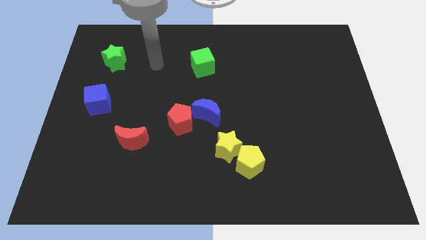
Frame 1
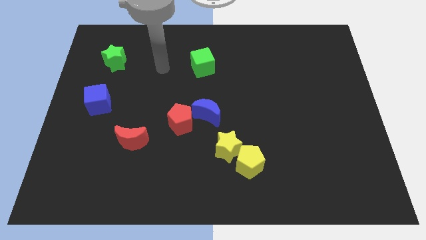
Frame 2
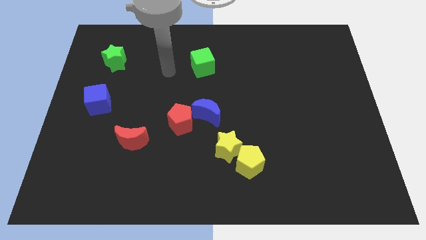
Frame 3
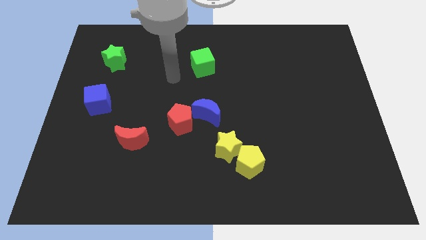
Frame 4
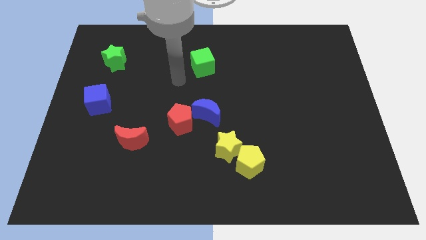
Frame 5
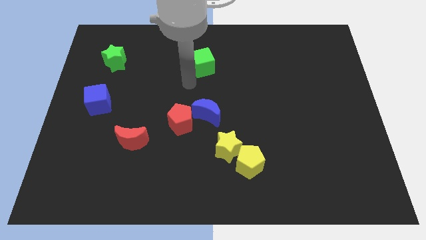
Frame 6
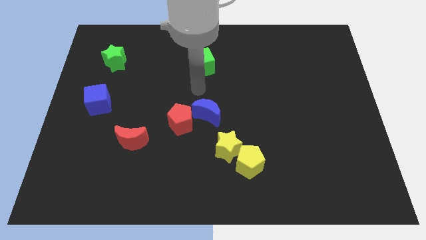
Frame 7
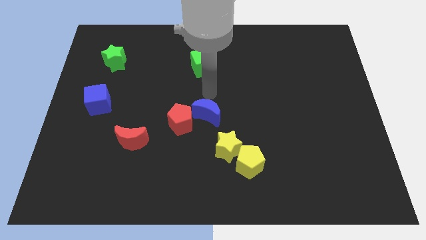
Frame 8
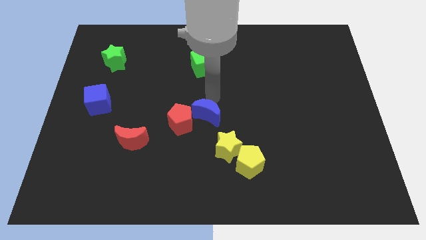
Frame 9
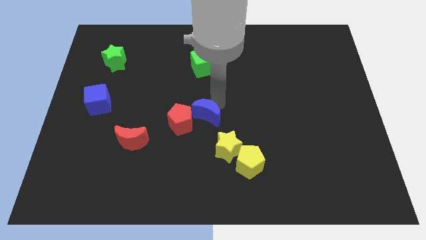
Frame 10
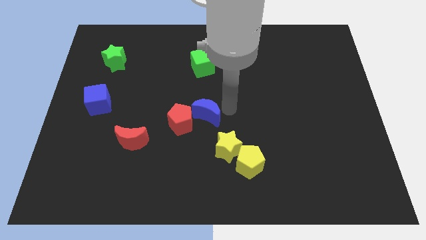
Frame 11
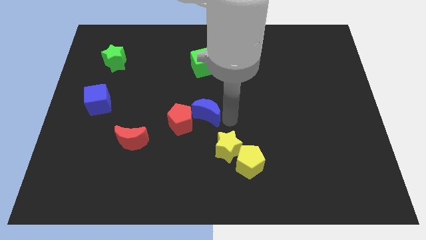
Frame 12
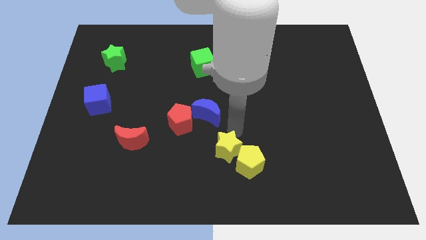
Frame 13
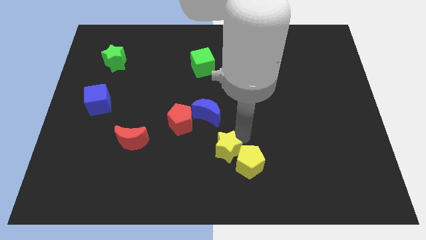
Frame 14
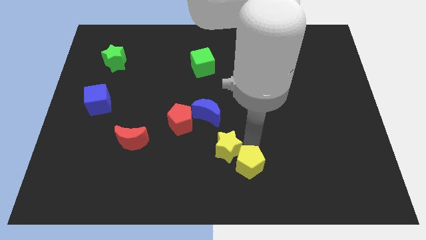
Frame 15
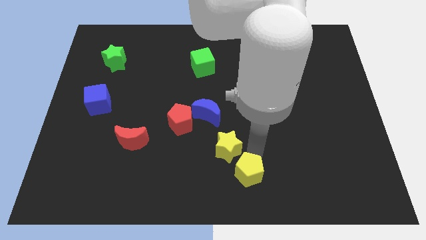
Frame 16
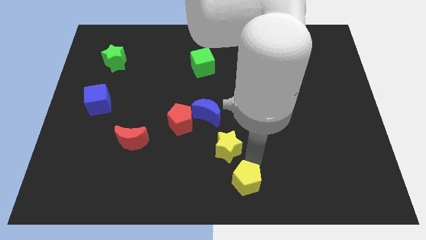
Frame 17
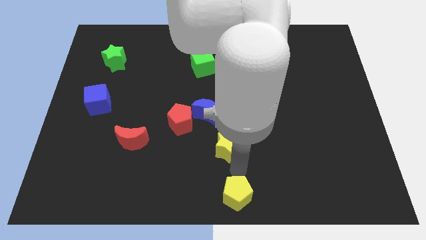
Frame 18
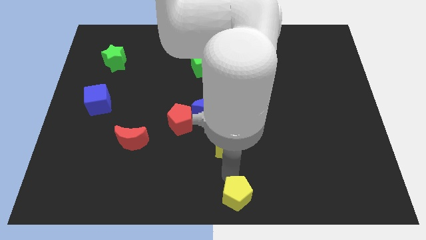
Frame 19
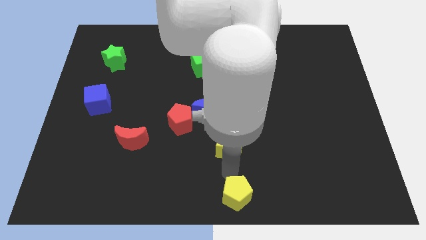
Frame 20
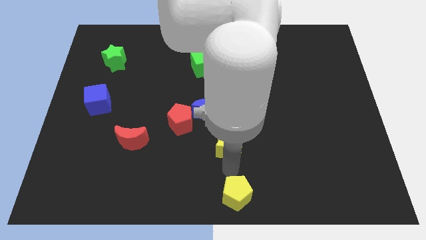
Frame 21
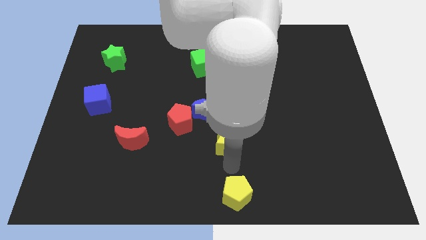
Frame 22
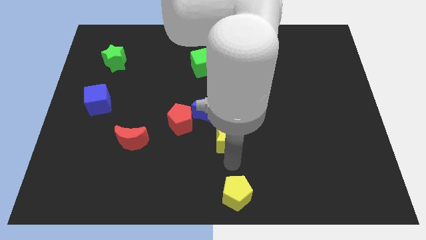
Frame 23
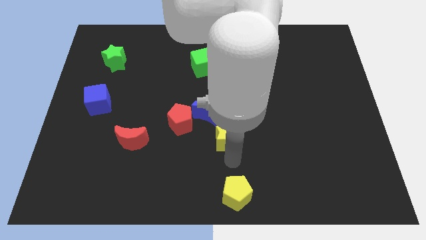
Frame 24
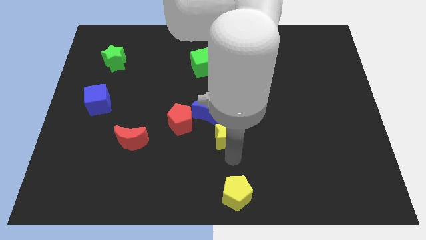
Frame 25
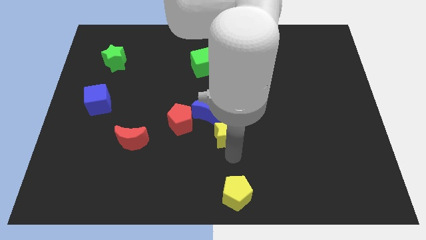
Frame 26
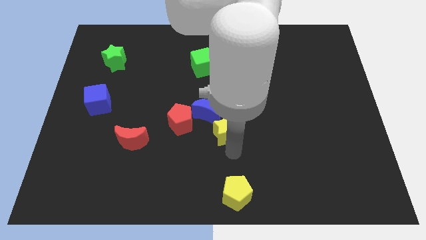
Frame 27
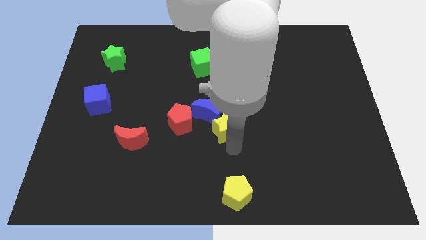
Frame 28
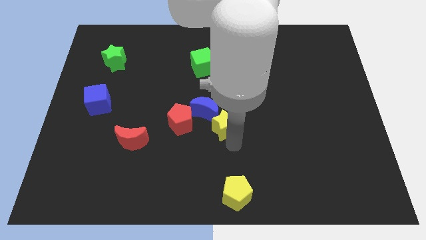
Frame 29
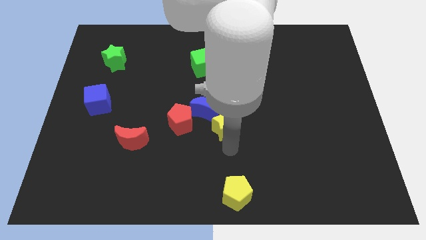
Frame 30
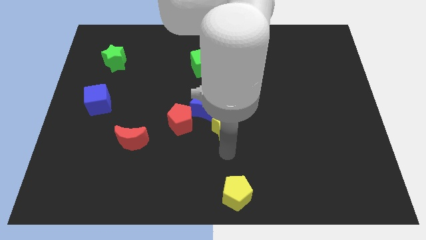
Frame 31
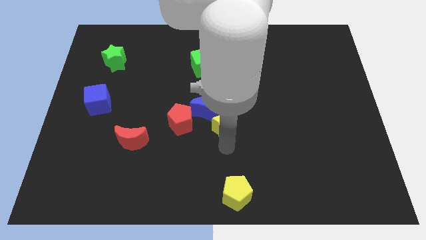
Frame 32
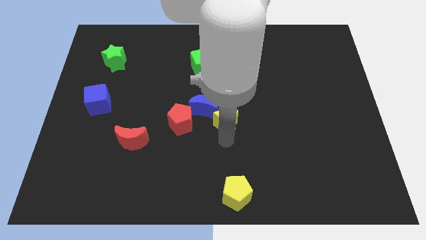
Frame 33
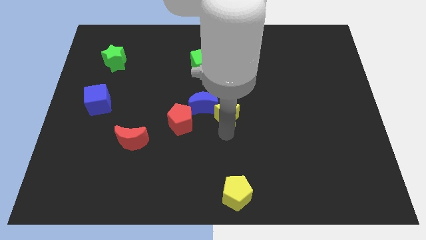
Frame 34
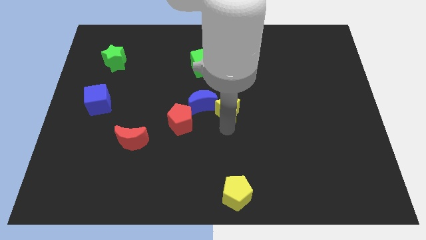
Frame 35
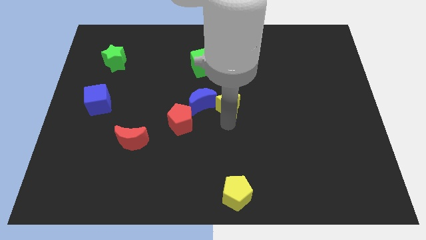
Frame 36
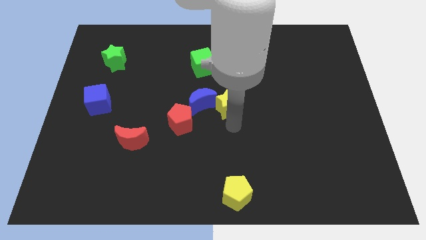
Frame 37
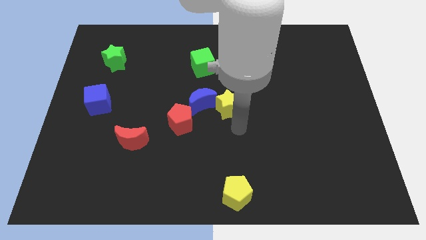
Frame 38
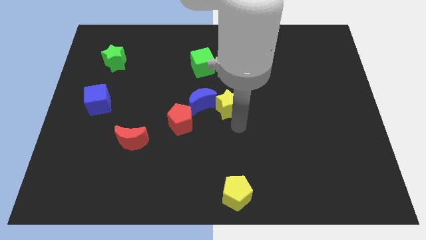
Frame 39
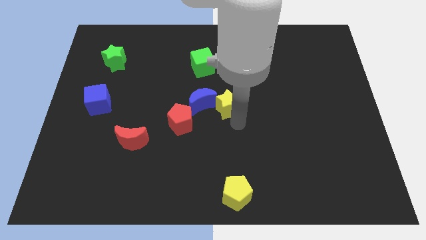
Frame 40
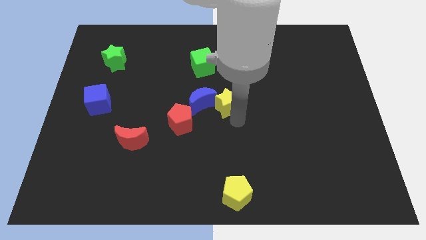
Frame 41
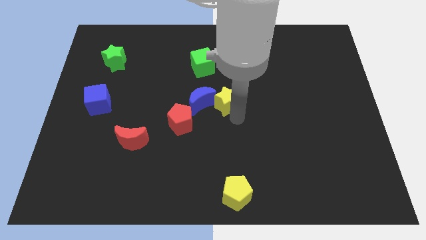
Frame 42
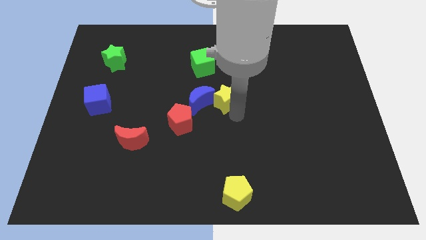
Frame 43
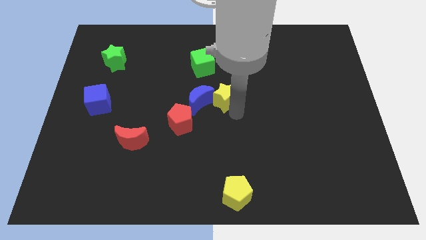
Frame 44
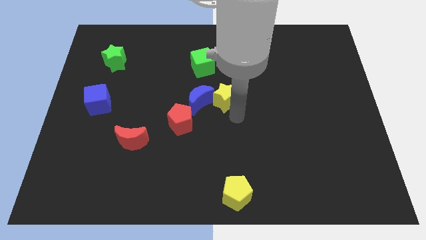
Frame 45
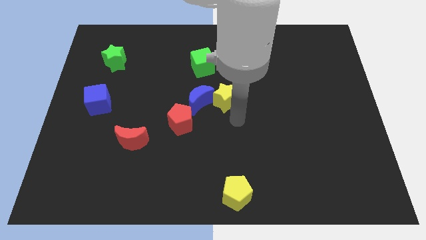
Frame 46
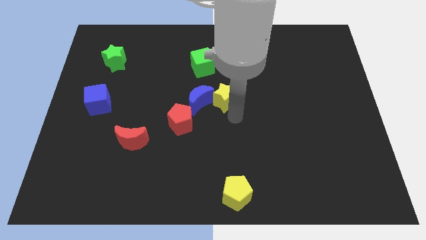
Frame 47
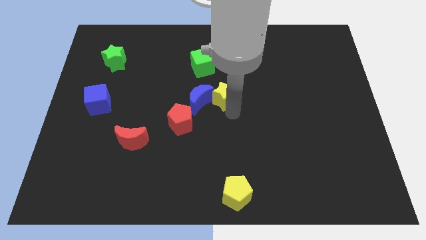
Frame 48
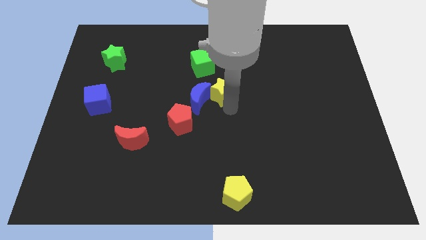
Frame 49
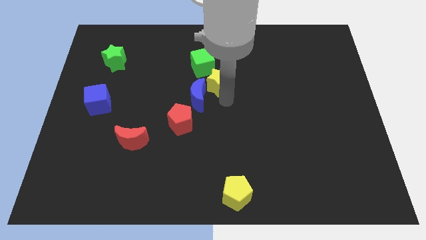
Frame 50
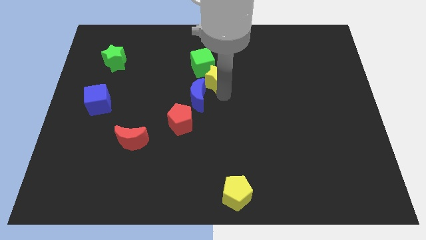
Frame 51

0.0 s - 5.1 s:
move the yellow star next to the green cube

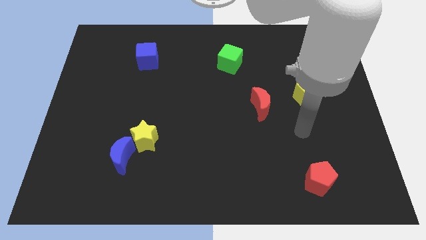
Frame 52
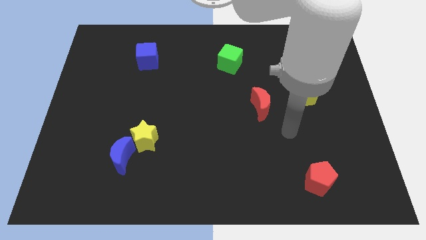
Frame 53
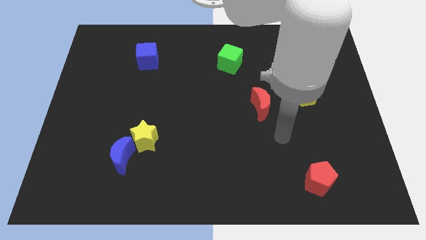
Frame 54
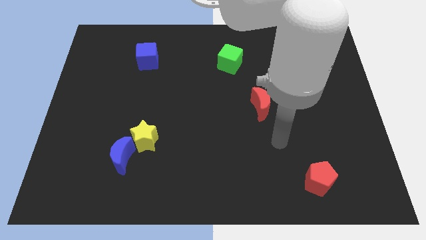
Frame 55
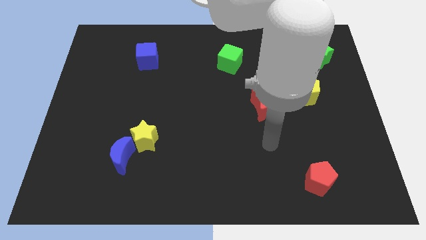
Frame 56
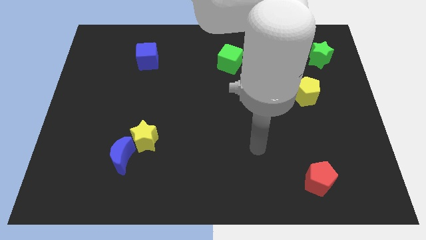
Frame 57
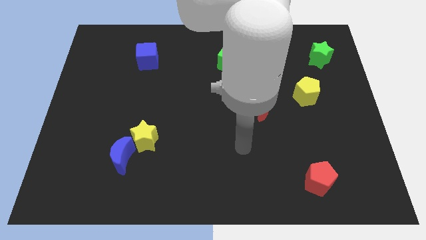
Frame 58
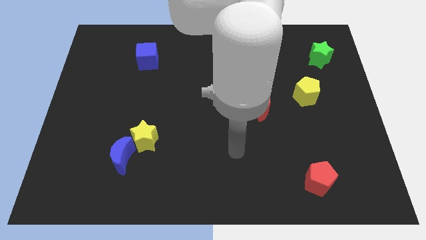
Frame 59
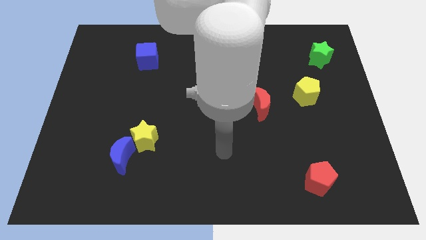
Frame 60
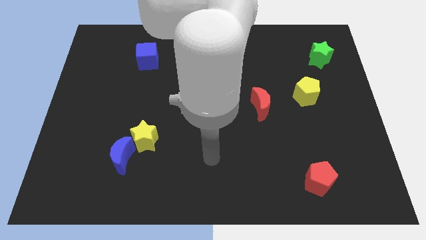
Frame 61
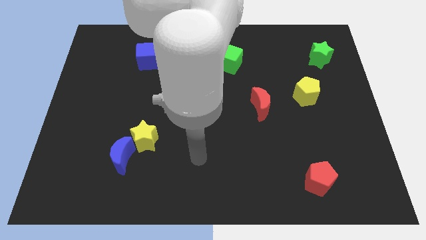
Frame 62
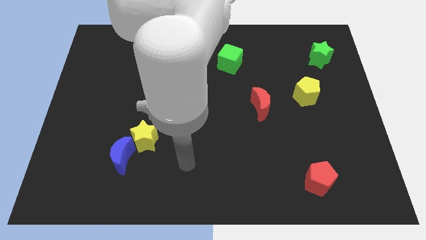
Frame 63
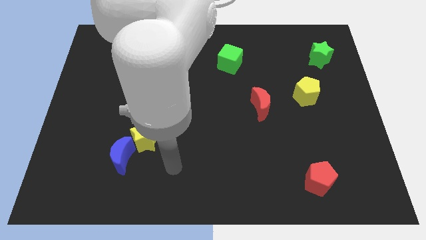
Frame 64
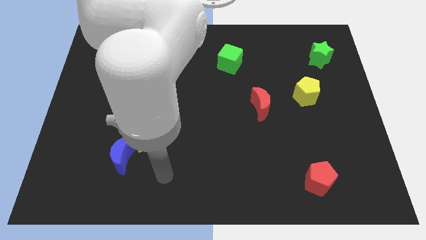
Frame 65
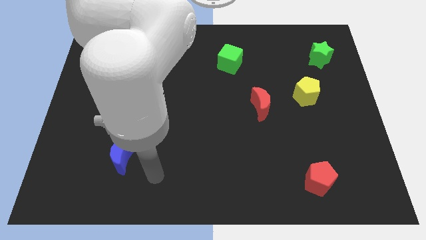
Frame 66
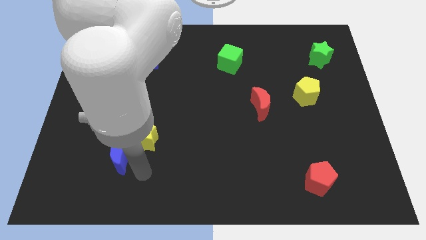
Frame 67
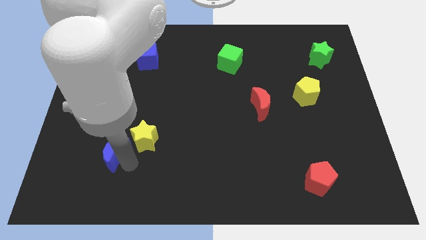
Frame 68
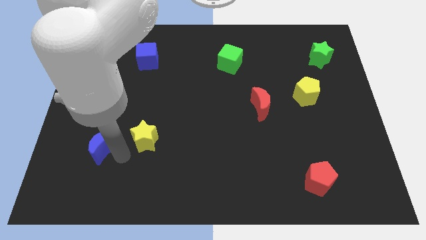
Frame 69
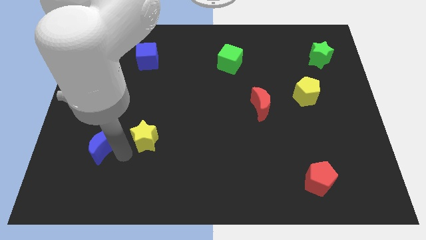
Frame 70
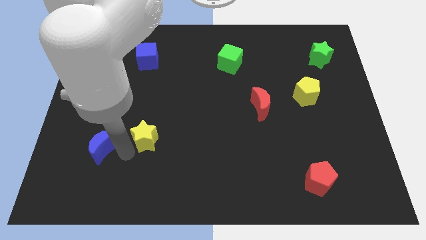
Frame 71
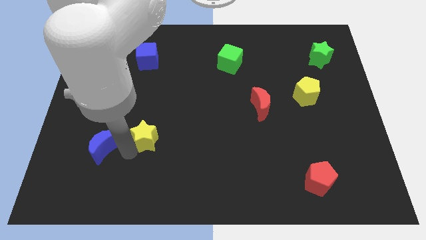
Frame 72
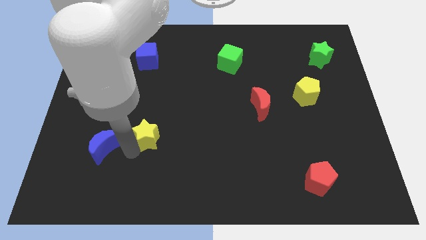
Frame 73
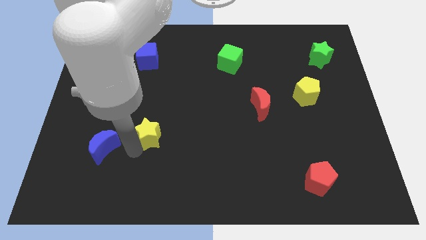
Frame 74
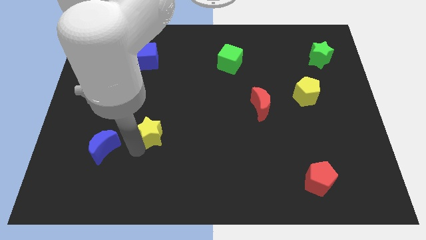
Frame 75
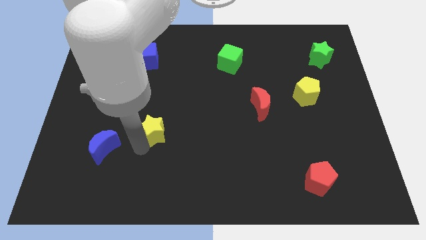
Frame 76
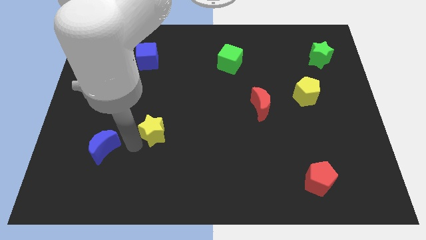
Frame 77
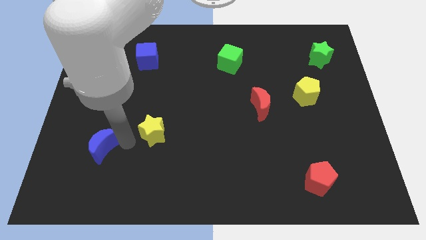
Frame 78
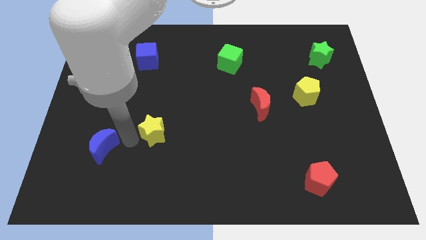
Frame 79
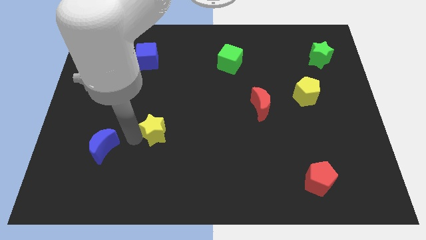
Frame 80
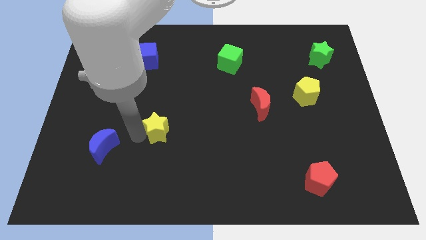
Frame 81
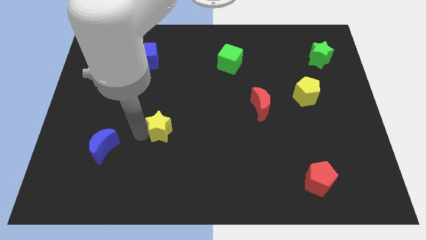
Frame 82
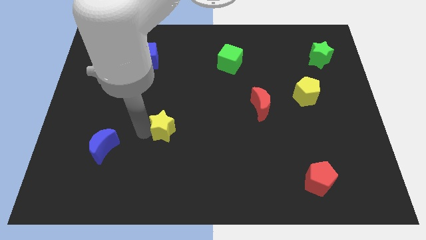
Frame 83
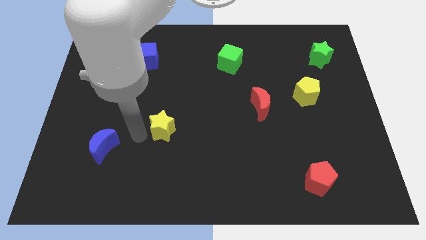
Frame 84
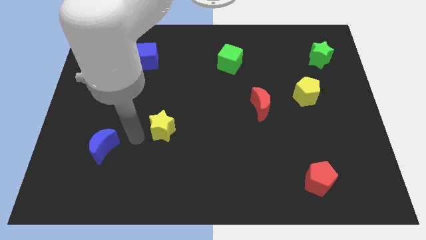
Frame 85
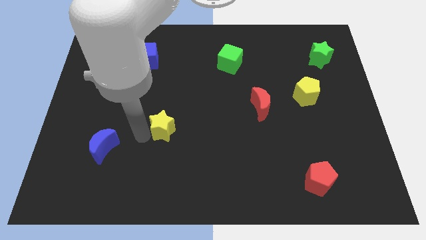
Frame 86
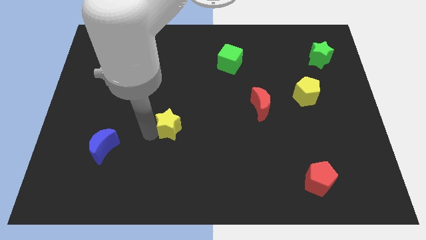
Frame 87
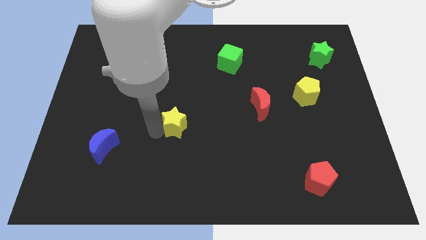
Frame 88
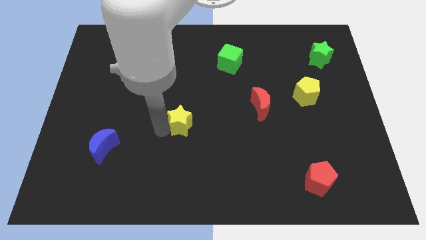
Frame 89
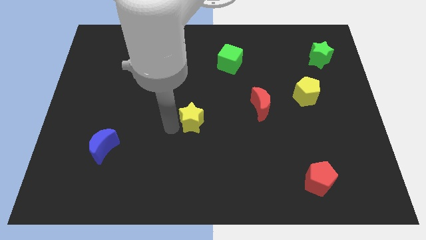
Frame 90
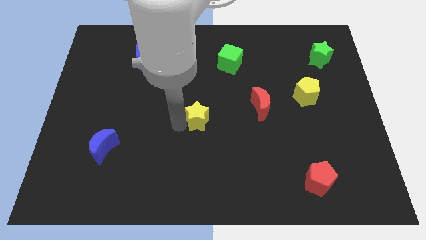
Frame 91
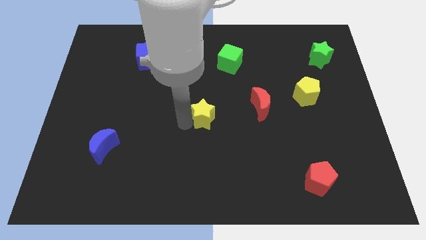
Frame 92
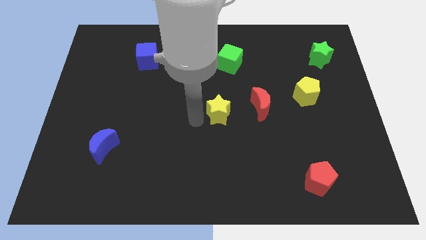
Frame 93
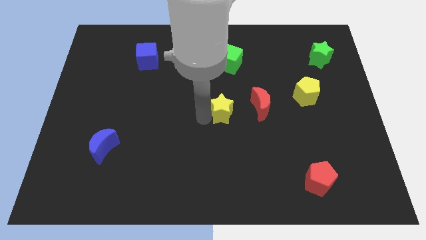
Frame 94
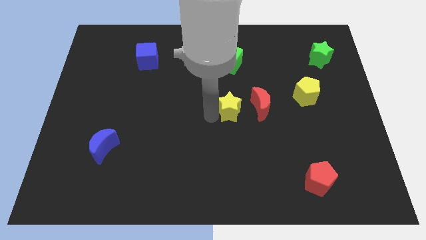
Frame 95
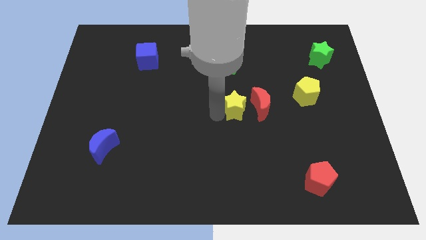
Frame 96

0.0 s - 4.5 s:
push the yellow star close to the red moon
